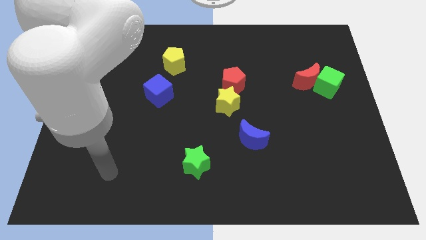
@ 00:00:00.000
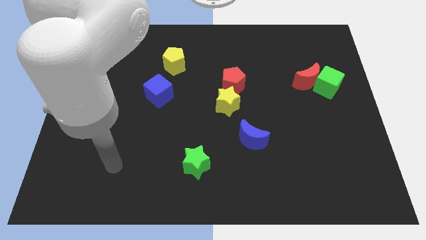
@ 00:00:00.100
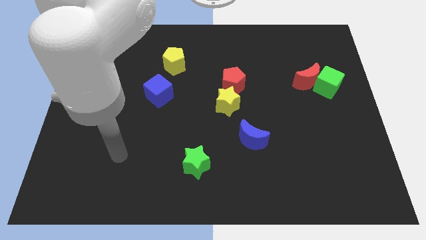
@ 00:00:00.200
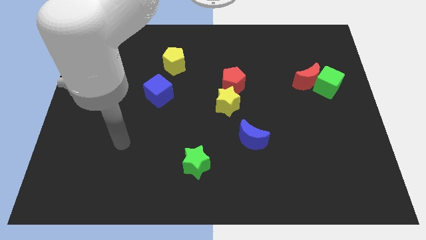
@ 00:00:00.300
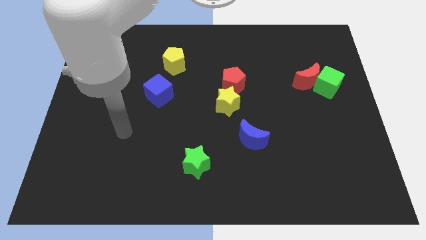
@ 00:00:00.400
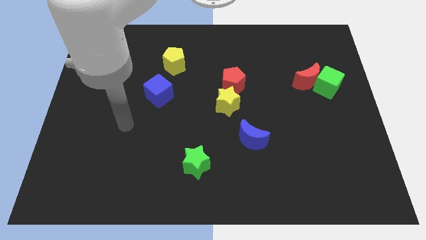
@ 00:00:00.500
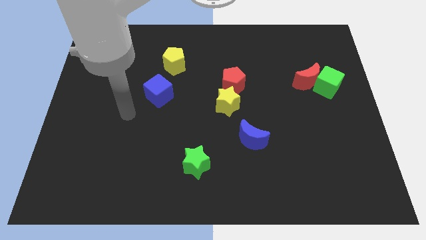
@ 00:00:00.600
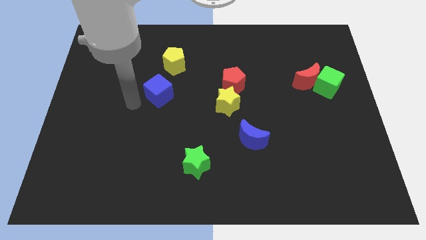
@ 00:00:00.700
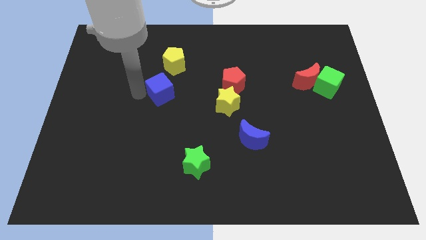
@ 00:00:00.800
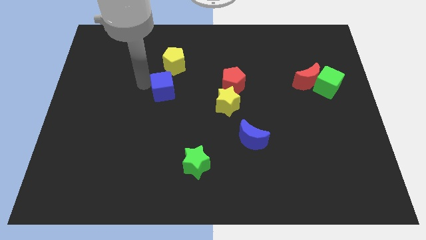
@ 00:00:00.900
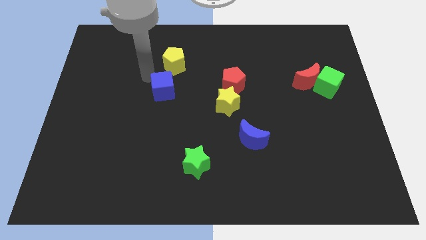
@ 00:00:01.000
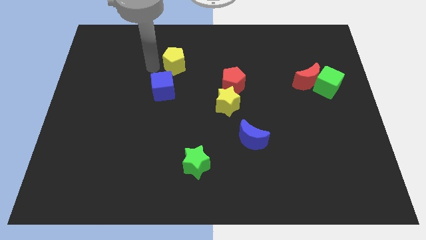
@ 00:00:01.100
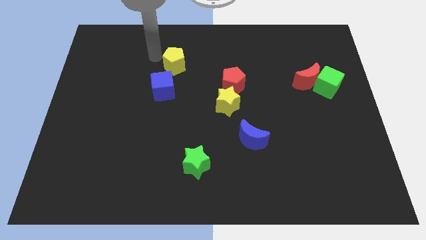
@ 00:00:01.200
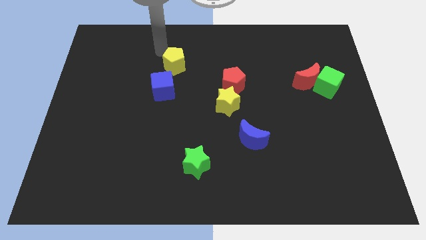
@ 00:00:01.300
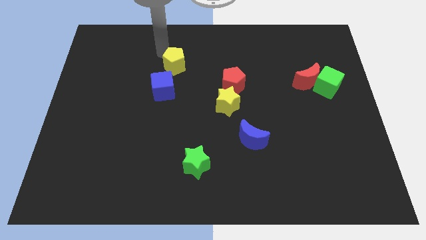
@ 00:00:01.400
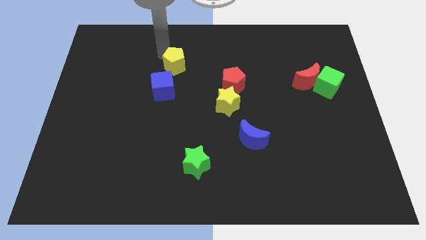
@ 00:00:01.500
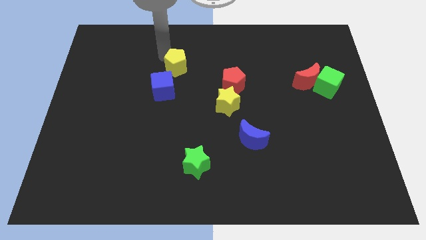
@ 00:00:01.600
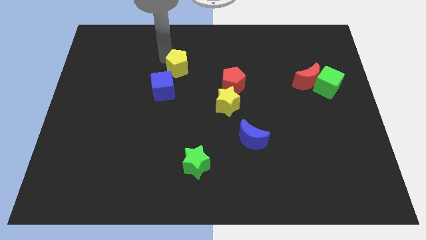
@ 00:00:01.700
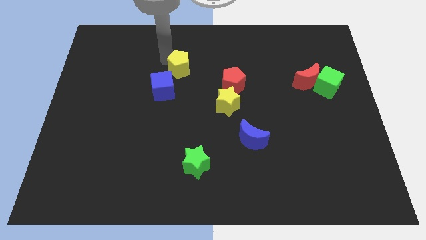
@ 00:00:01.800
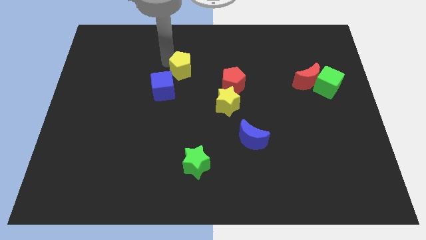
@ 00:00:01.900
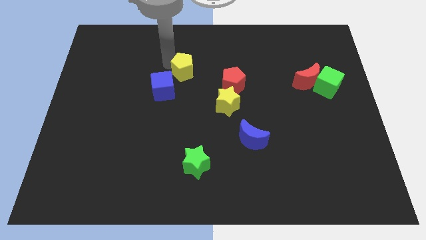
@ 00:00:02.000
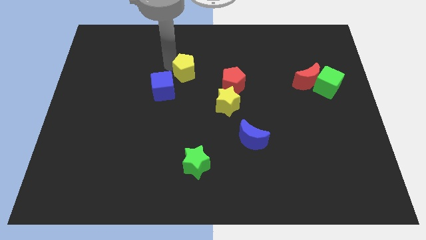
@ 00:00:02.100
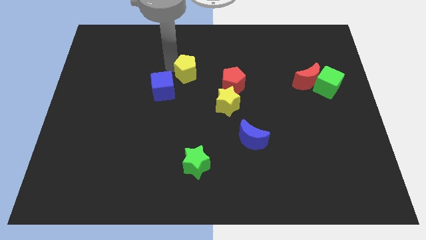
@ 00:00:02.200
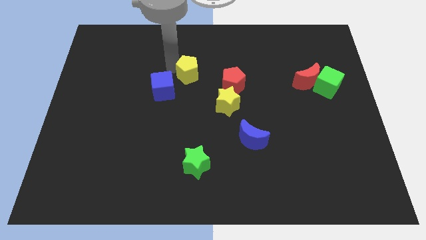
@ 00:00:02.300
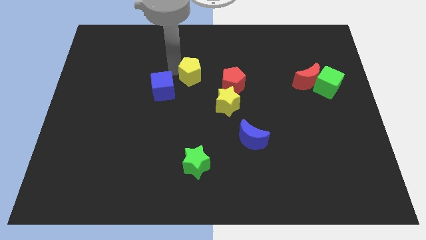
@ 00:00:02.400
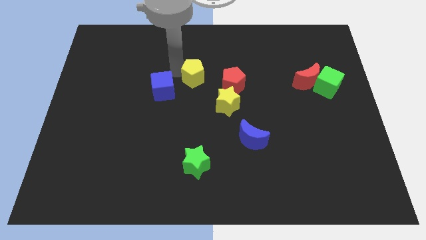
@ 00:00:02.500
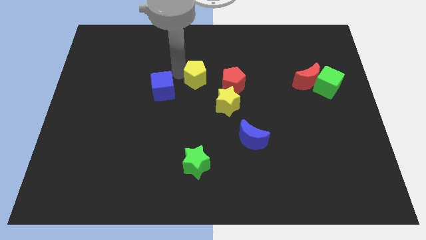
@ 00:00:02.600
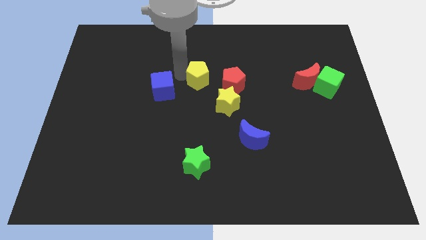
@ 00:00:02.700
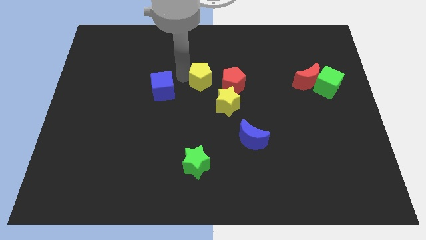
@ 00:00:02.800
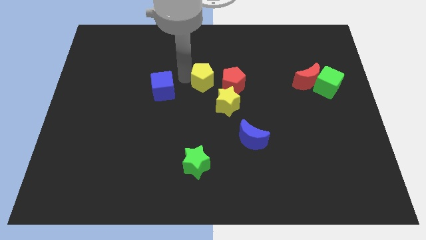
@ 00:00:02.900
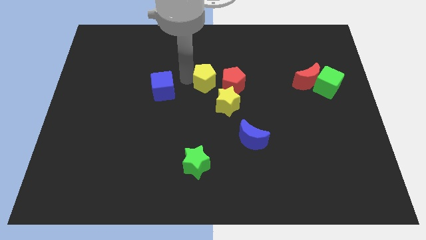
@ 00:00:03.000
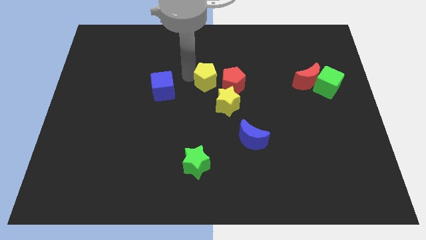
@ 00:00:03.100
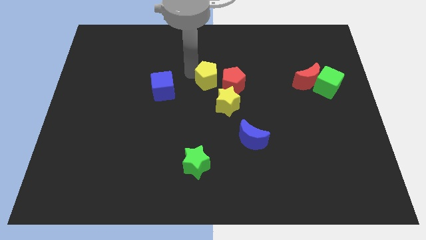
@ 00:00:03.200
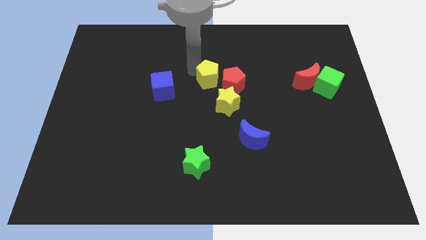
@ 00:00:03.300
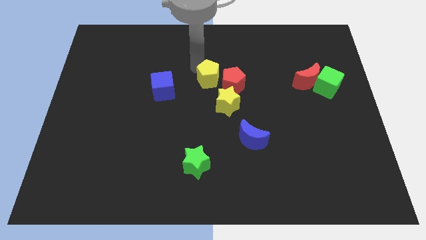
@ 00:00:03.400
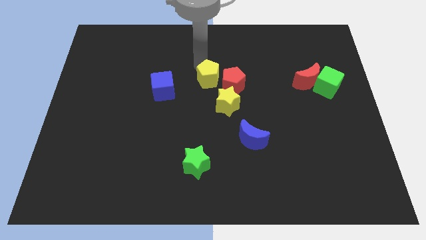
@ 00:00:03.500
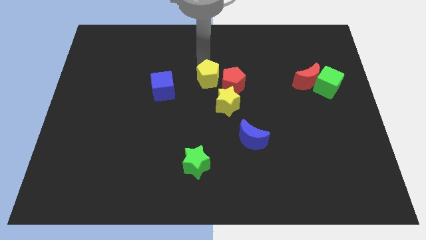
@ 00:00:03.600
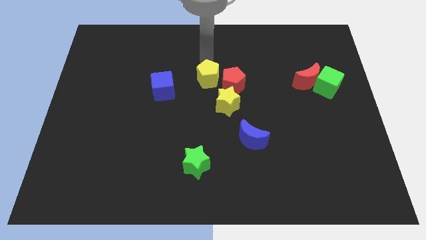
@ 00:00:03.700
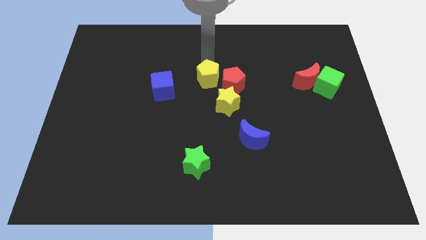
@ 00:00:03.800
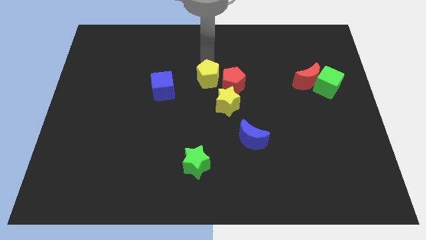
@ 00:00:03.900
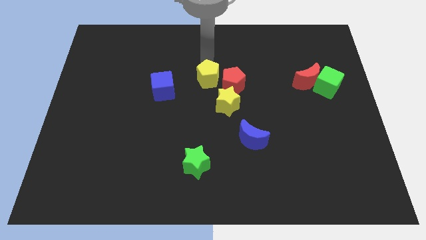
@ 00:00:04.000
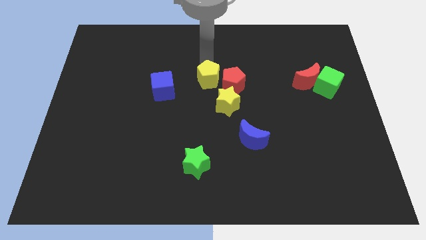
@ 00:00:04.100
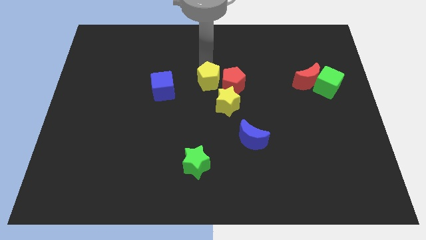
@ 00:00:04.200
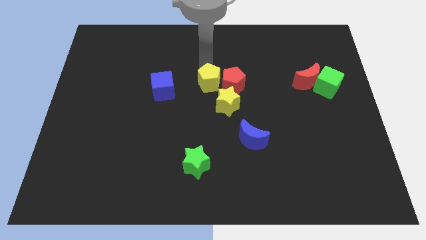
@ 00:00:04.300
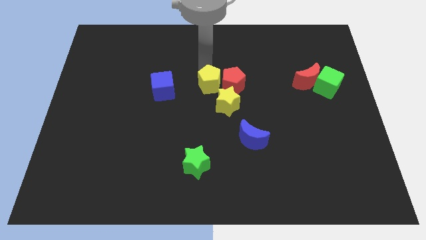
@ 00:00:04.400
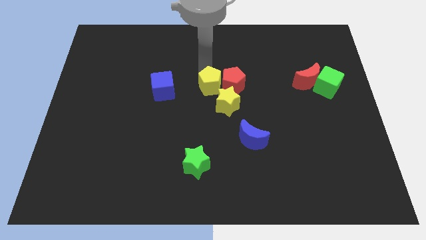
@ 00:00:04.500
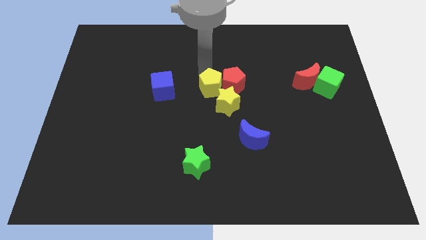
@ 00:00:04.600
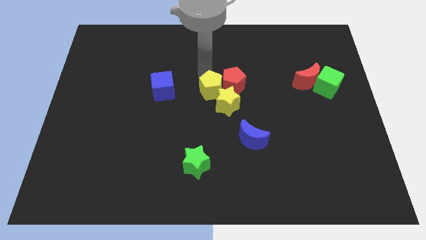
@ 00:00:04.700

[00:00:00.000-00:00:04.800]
put the yellow pentagon towards the yellow star

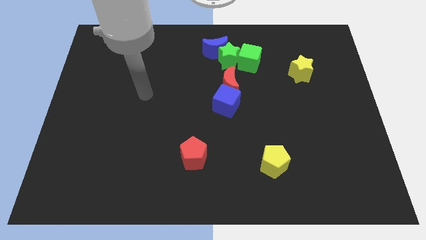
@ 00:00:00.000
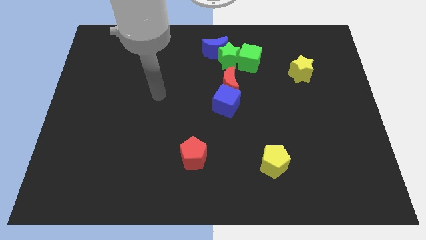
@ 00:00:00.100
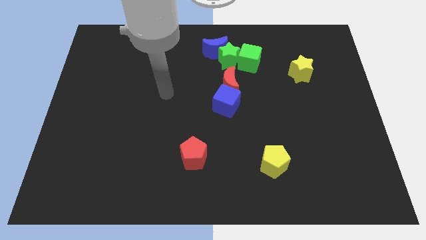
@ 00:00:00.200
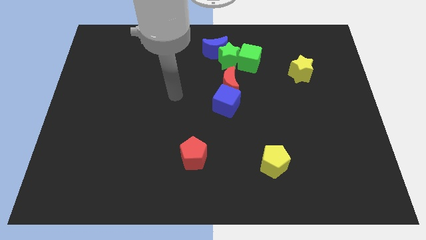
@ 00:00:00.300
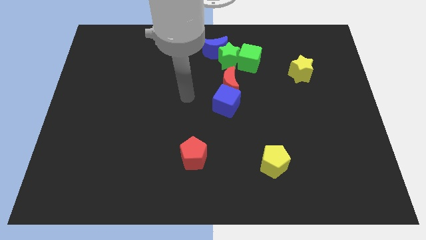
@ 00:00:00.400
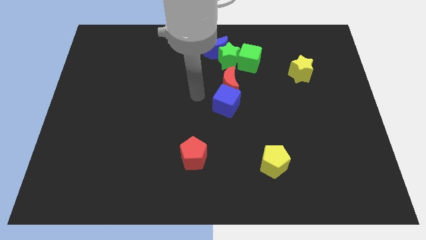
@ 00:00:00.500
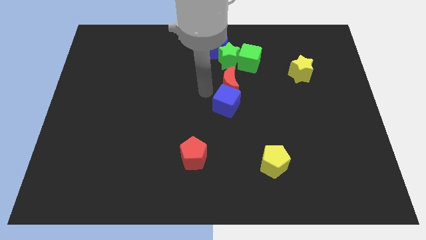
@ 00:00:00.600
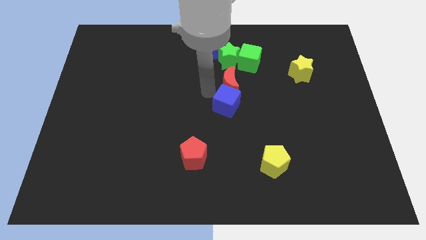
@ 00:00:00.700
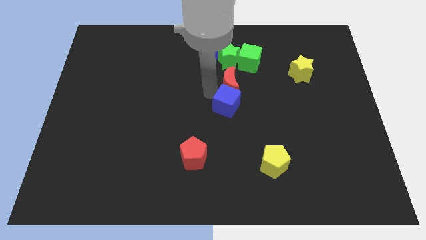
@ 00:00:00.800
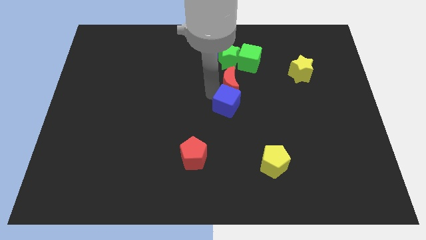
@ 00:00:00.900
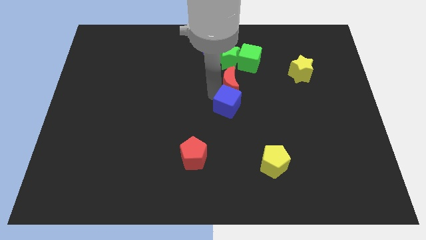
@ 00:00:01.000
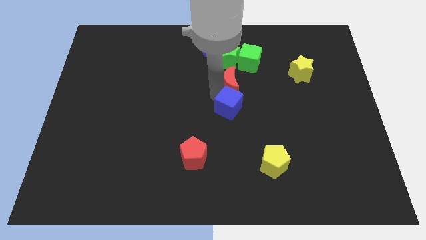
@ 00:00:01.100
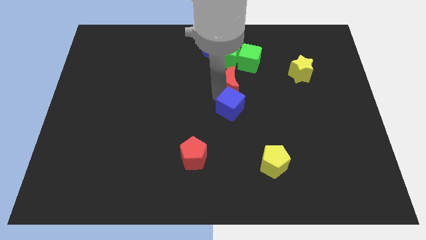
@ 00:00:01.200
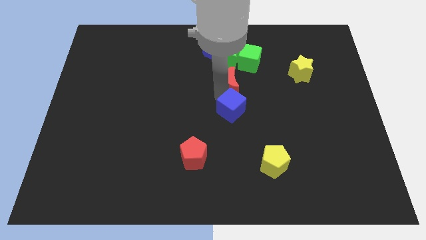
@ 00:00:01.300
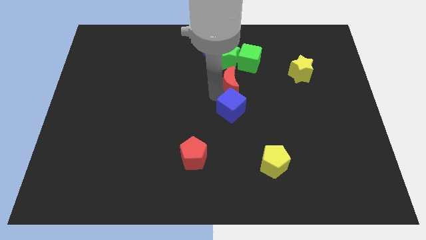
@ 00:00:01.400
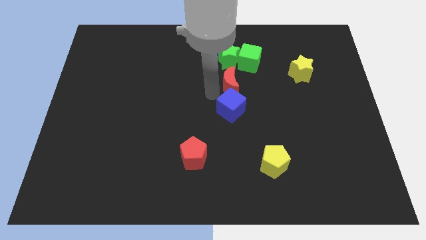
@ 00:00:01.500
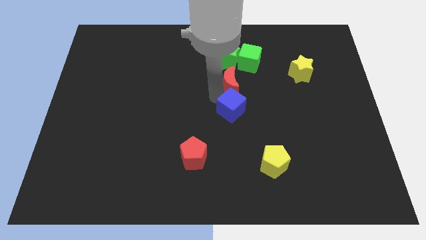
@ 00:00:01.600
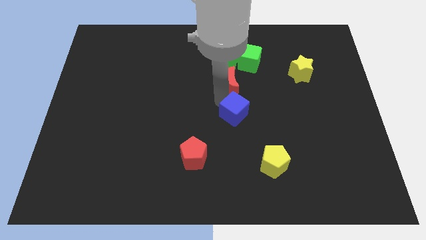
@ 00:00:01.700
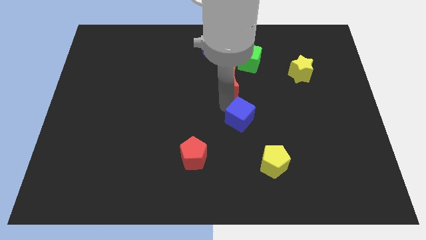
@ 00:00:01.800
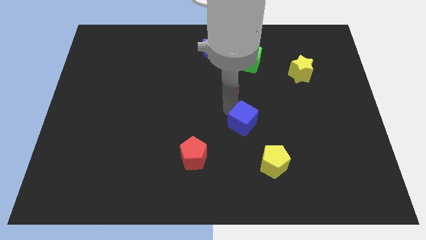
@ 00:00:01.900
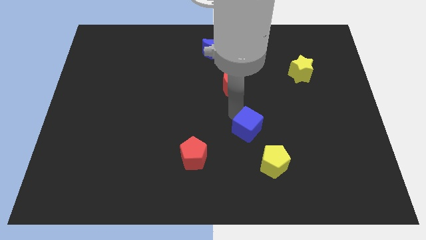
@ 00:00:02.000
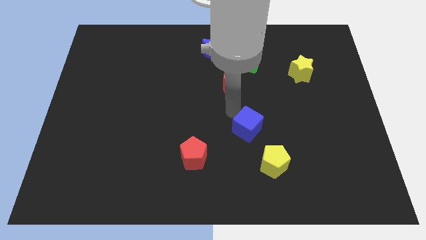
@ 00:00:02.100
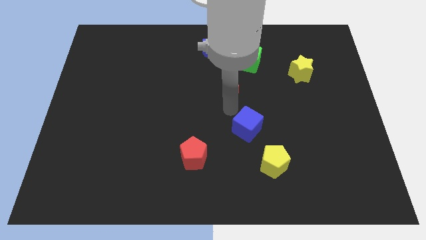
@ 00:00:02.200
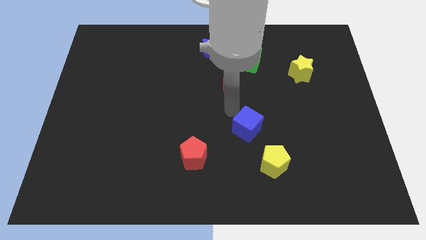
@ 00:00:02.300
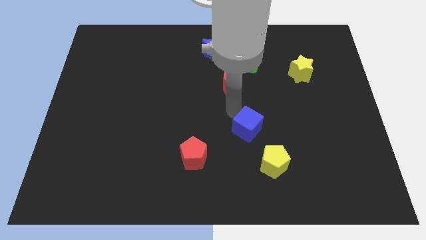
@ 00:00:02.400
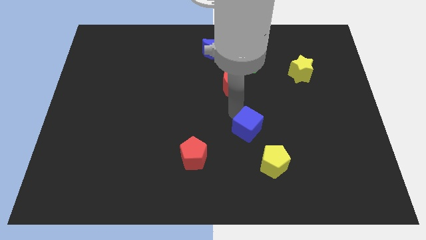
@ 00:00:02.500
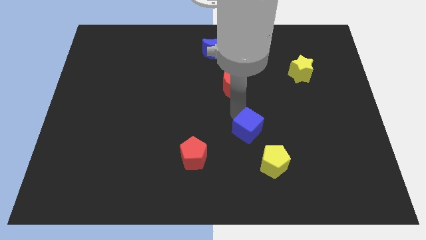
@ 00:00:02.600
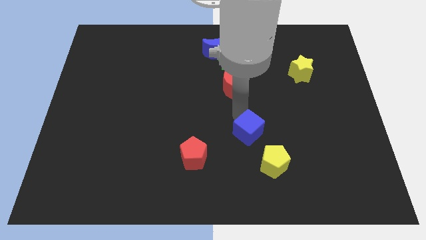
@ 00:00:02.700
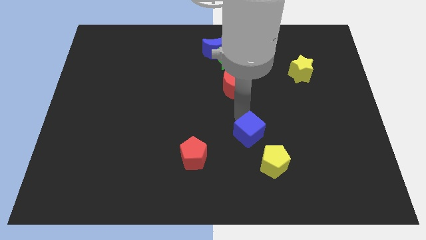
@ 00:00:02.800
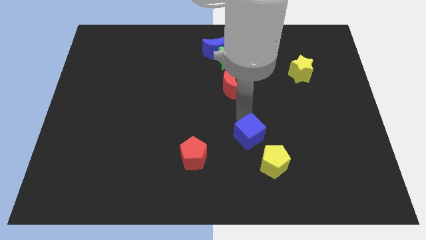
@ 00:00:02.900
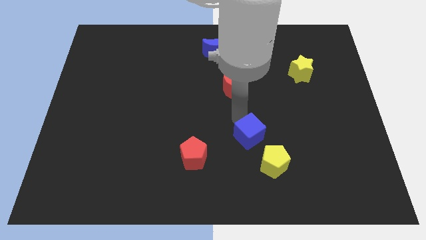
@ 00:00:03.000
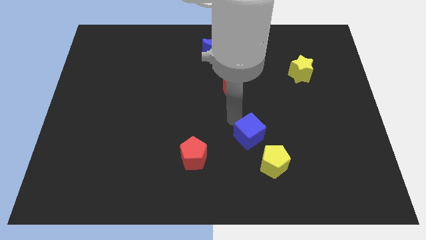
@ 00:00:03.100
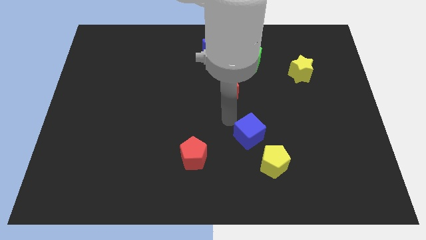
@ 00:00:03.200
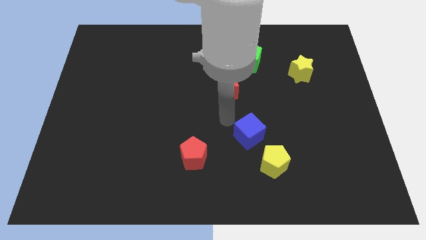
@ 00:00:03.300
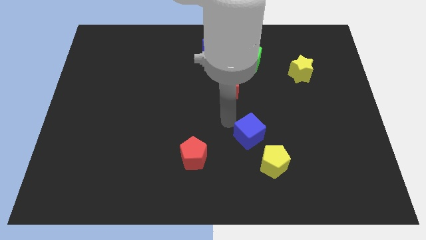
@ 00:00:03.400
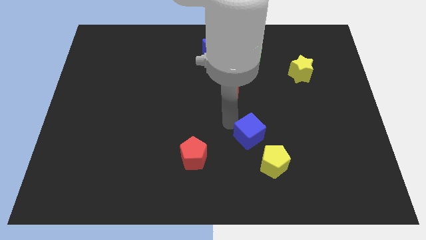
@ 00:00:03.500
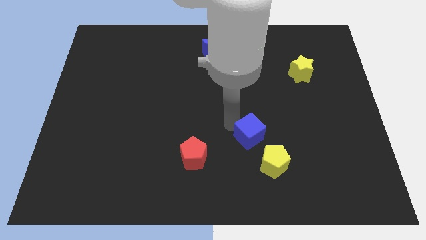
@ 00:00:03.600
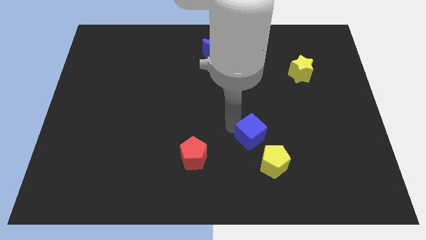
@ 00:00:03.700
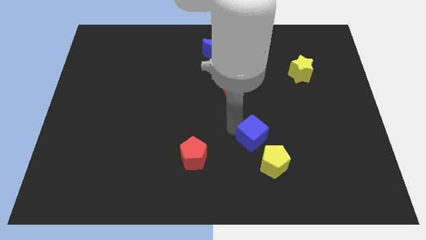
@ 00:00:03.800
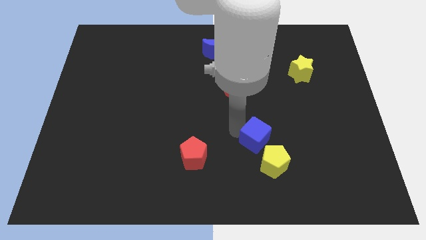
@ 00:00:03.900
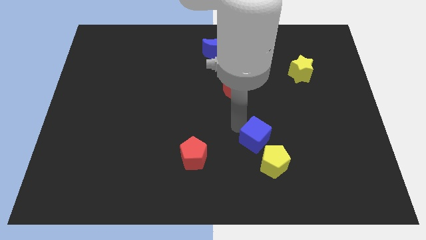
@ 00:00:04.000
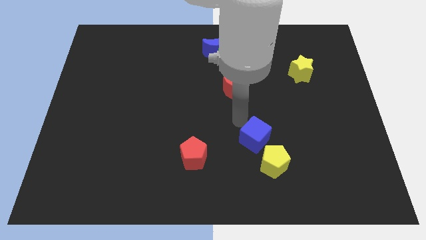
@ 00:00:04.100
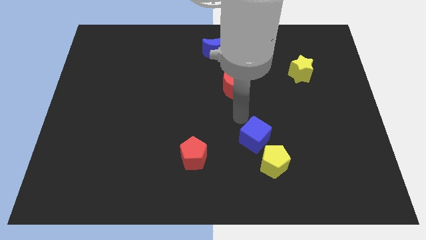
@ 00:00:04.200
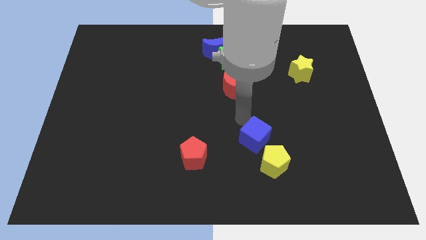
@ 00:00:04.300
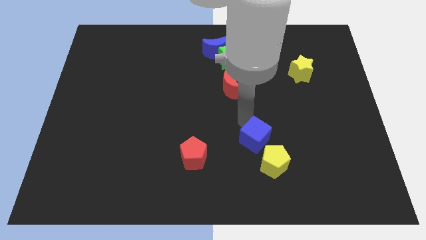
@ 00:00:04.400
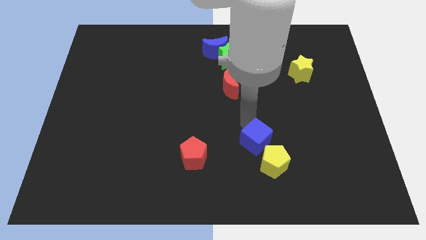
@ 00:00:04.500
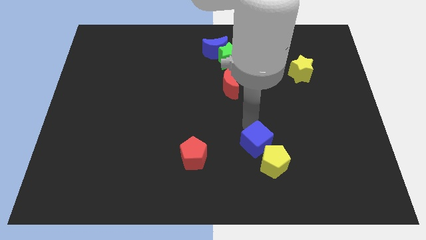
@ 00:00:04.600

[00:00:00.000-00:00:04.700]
move the blue cube close to the yellow pentagon
